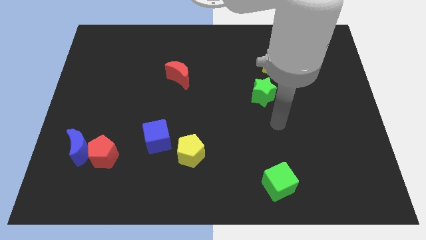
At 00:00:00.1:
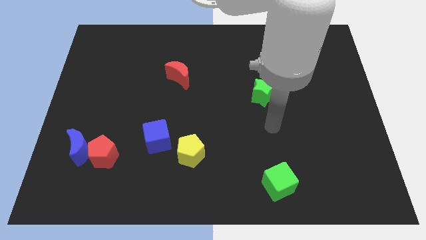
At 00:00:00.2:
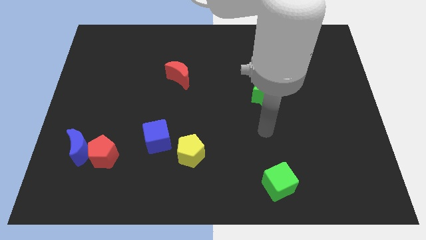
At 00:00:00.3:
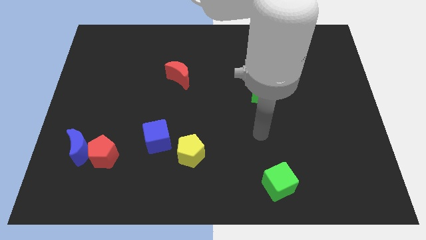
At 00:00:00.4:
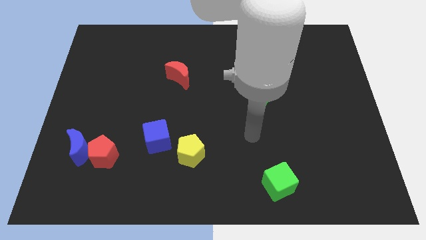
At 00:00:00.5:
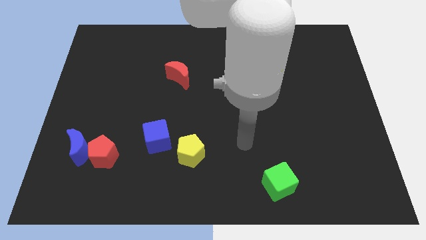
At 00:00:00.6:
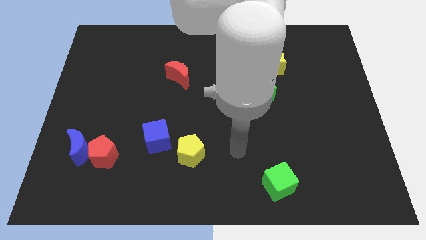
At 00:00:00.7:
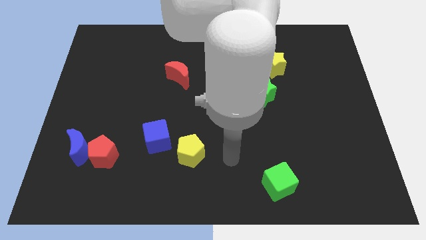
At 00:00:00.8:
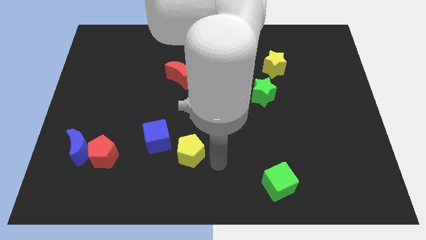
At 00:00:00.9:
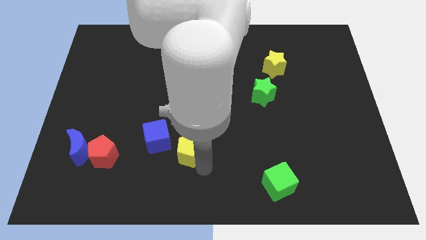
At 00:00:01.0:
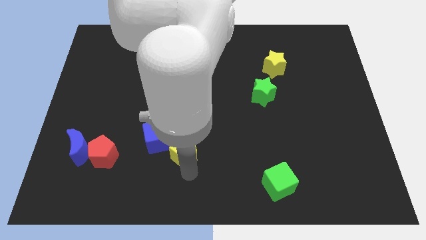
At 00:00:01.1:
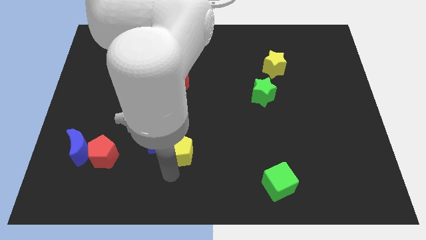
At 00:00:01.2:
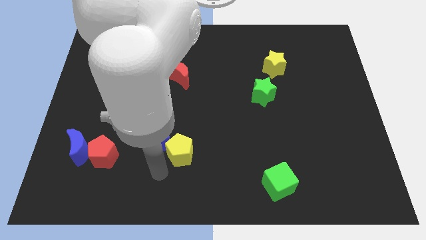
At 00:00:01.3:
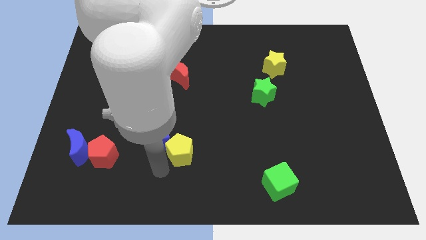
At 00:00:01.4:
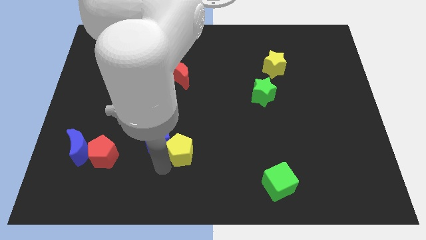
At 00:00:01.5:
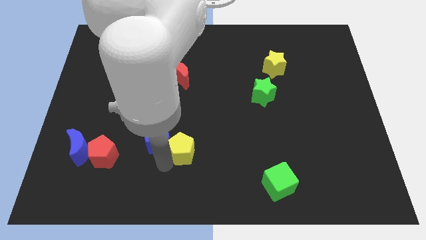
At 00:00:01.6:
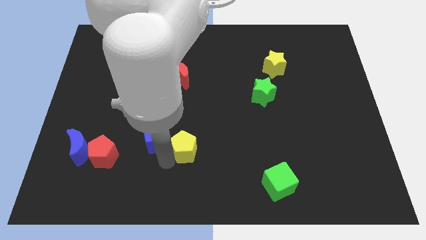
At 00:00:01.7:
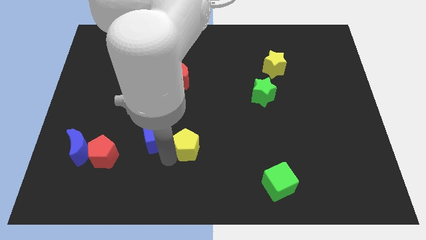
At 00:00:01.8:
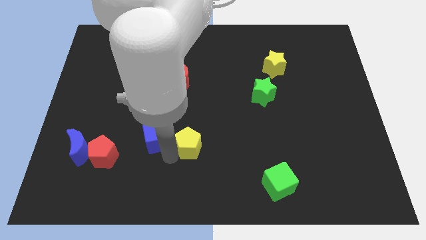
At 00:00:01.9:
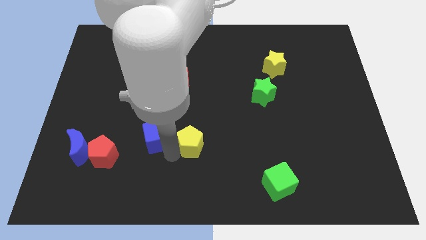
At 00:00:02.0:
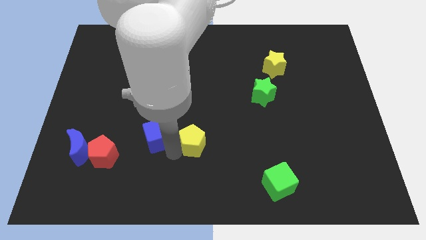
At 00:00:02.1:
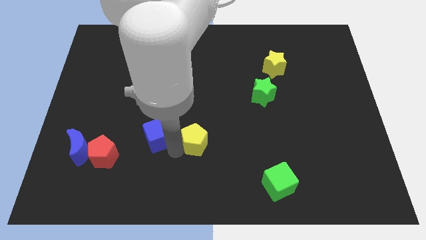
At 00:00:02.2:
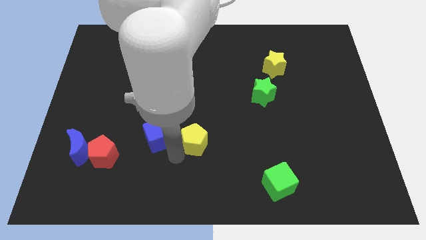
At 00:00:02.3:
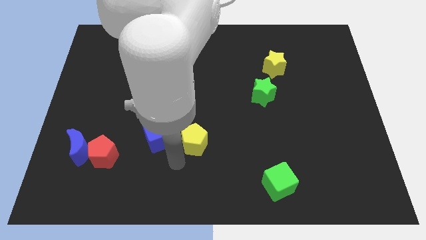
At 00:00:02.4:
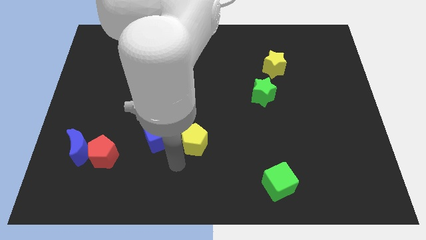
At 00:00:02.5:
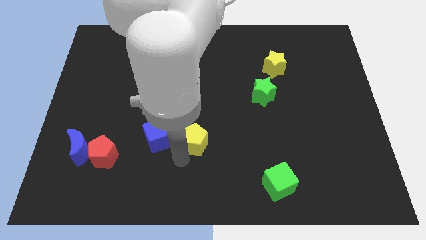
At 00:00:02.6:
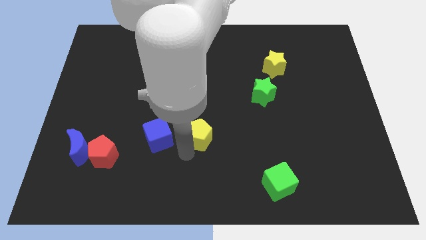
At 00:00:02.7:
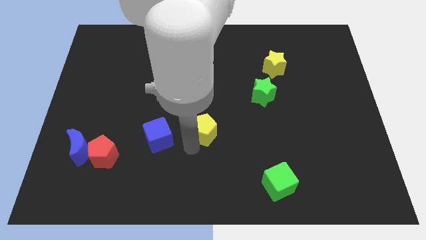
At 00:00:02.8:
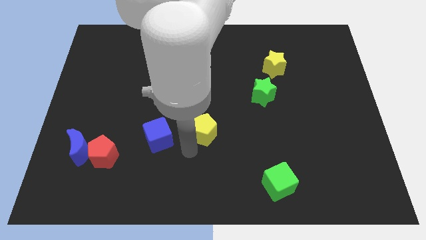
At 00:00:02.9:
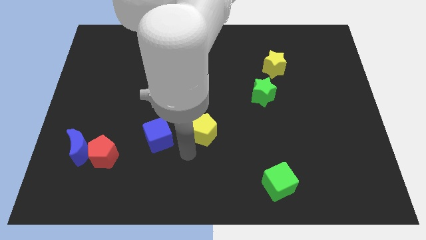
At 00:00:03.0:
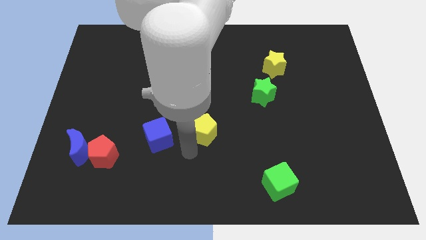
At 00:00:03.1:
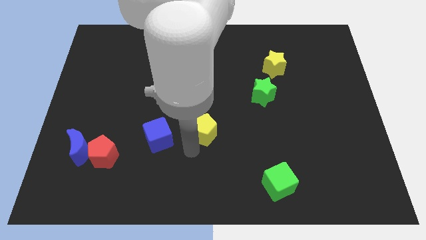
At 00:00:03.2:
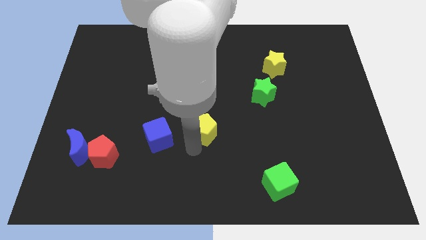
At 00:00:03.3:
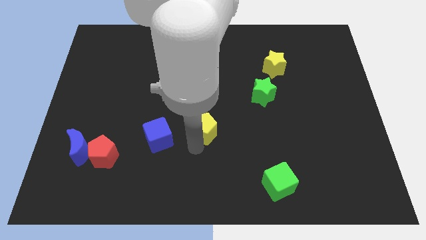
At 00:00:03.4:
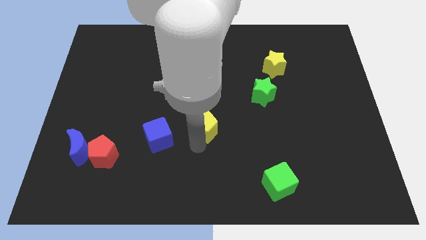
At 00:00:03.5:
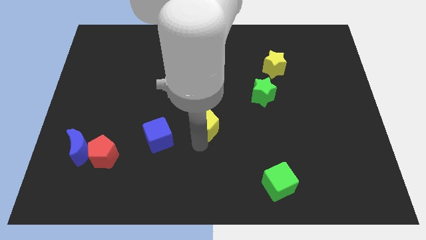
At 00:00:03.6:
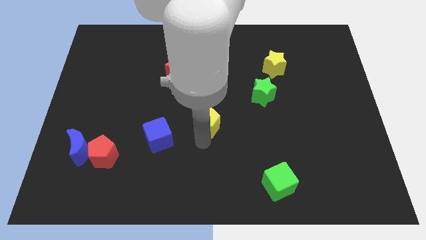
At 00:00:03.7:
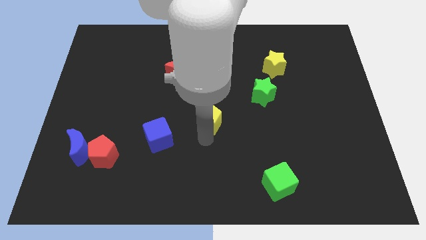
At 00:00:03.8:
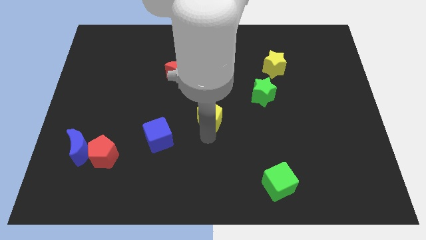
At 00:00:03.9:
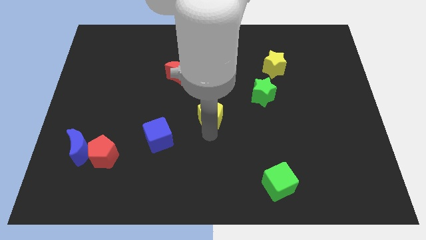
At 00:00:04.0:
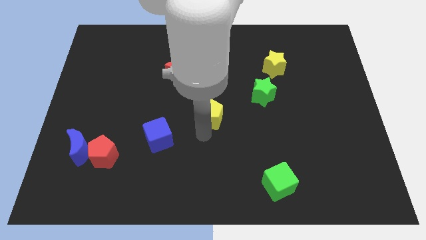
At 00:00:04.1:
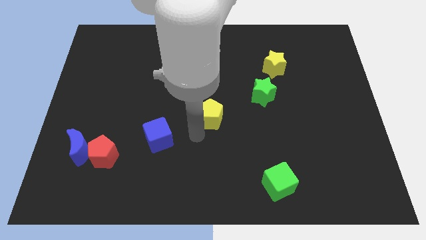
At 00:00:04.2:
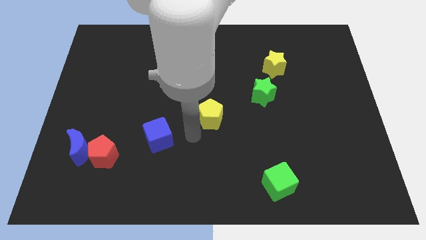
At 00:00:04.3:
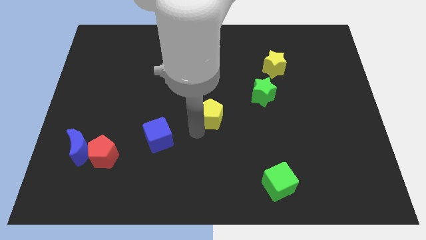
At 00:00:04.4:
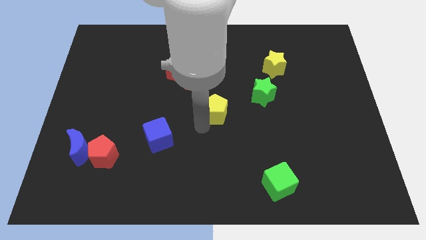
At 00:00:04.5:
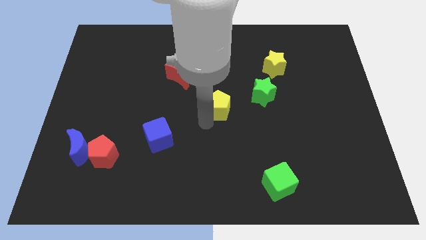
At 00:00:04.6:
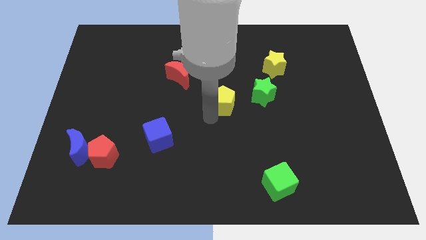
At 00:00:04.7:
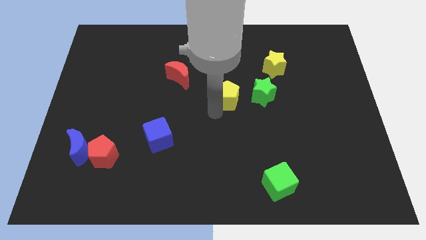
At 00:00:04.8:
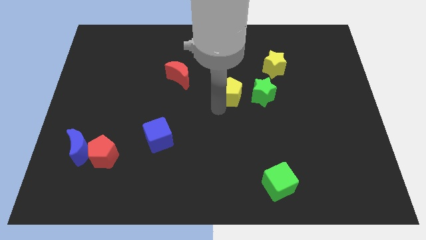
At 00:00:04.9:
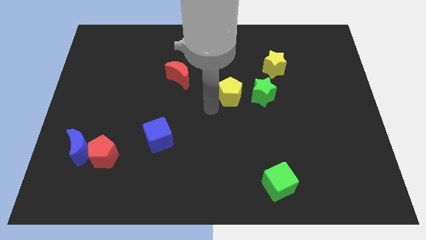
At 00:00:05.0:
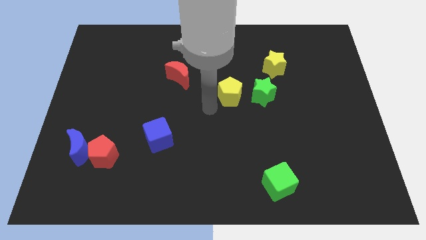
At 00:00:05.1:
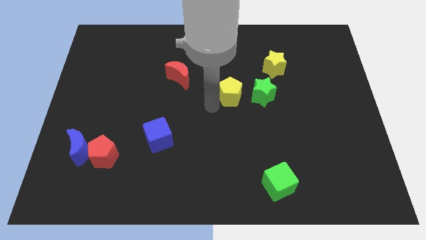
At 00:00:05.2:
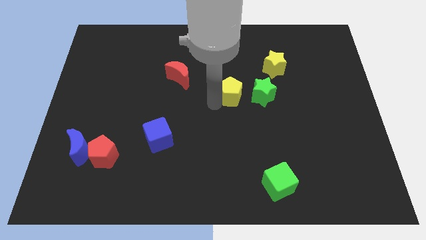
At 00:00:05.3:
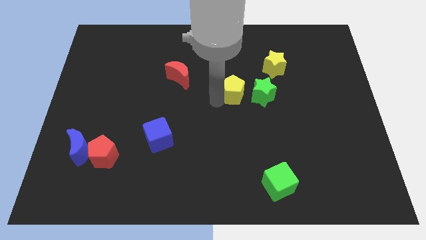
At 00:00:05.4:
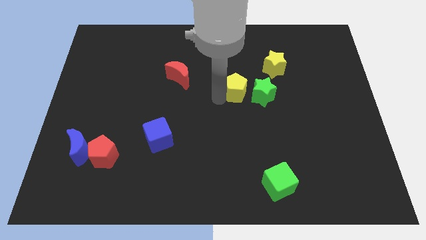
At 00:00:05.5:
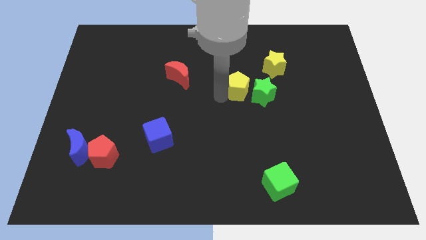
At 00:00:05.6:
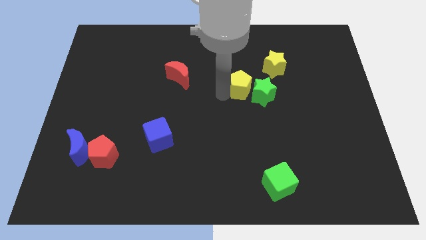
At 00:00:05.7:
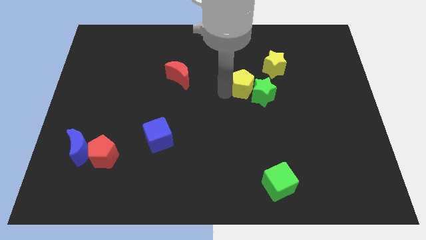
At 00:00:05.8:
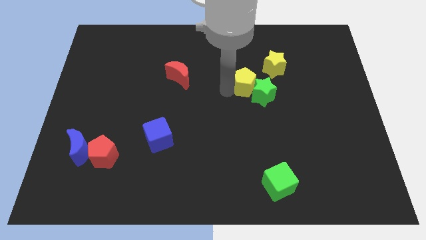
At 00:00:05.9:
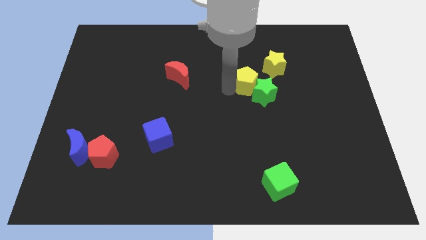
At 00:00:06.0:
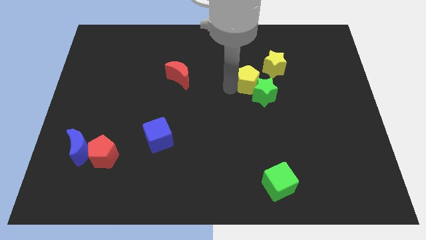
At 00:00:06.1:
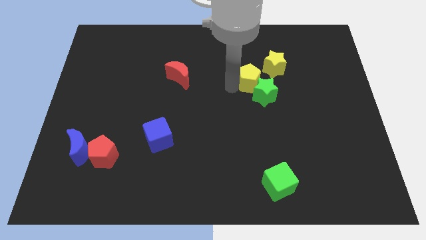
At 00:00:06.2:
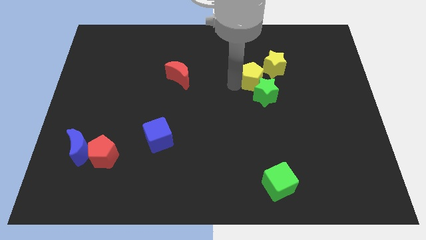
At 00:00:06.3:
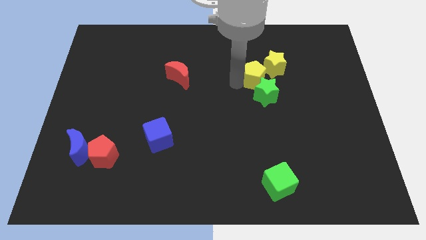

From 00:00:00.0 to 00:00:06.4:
slide the yellow pentagon close to the yellow star

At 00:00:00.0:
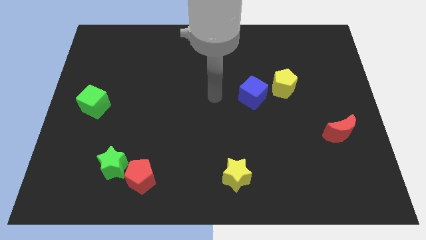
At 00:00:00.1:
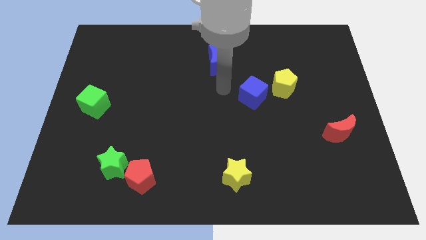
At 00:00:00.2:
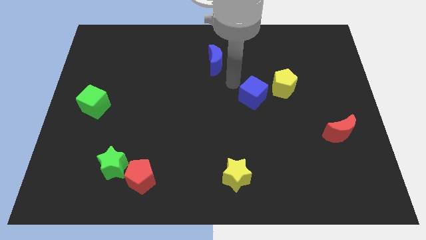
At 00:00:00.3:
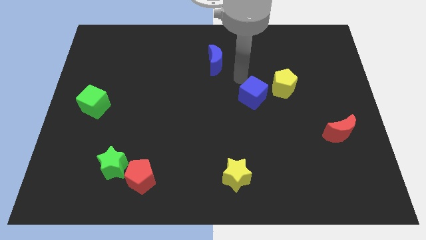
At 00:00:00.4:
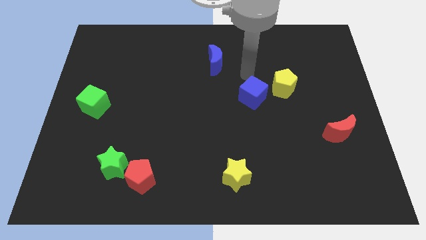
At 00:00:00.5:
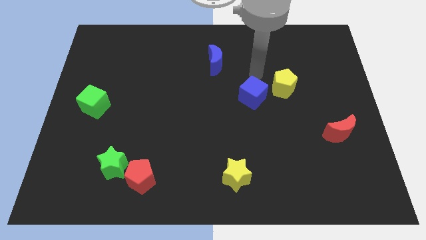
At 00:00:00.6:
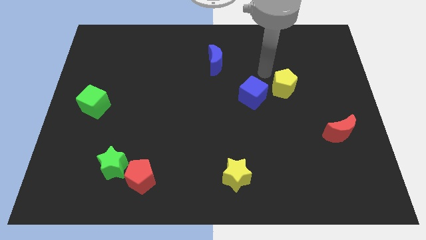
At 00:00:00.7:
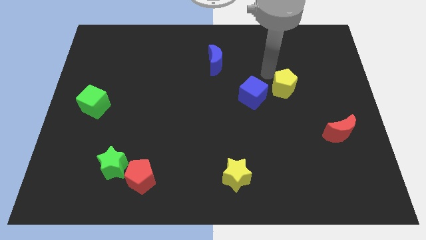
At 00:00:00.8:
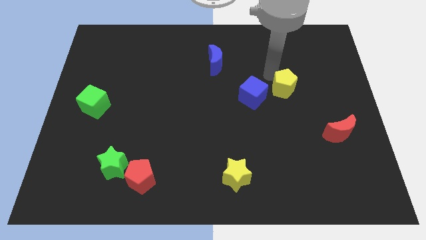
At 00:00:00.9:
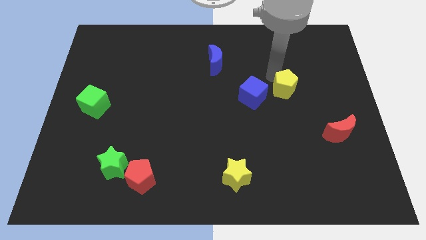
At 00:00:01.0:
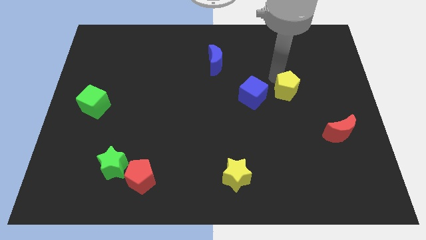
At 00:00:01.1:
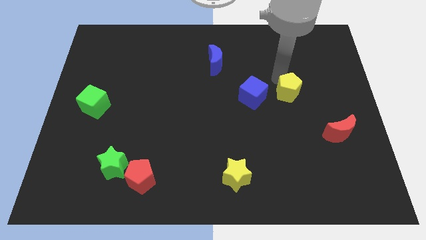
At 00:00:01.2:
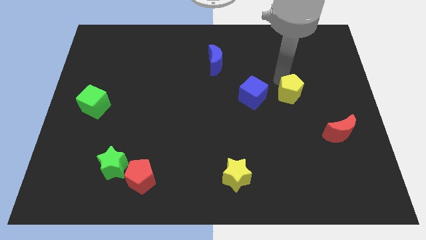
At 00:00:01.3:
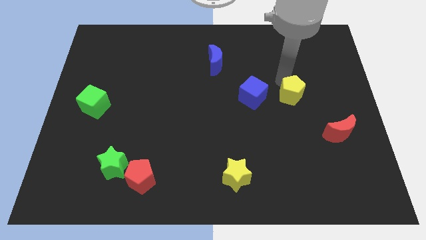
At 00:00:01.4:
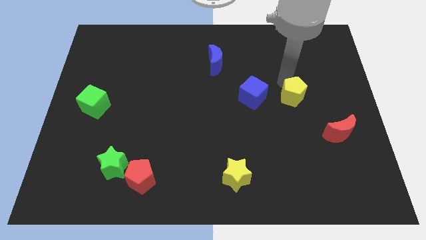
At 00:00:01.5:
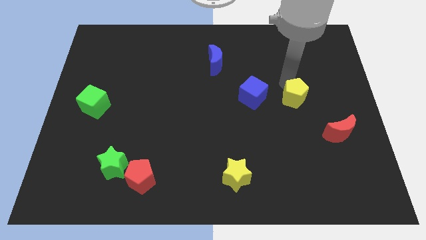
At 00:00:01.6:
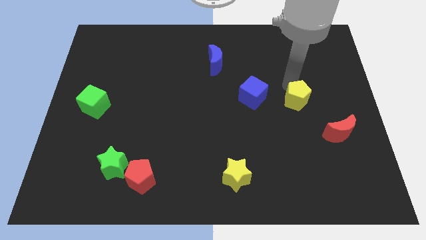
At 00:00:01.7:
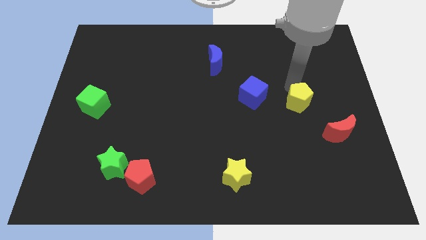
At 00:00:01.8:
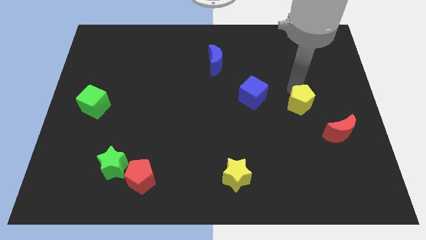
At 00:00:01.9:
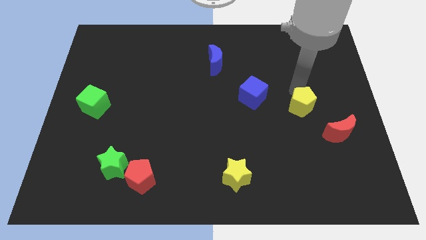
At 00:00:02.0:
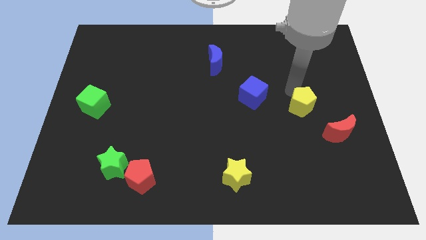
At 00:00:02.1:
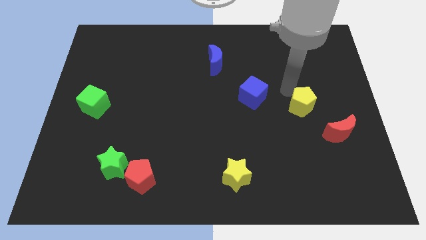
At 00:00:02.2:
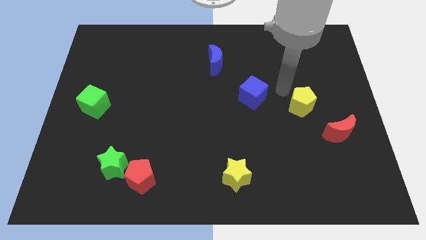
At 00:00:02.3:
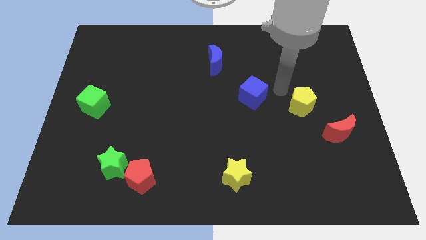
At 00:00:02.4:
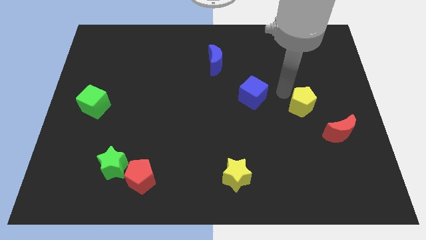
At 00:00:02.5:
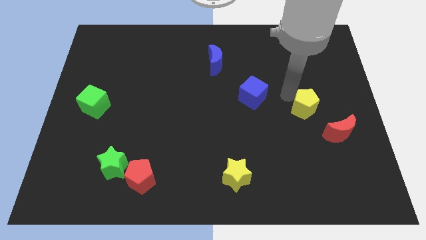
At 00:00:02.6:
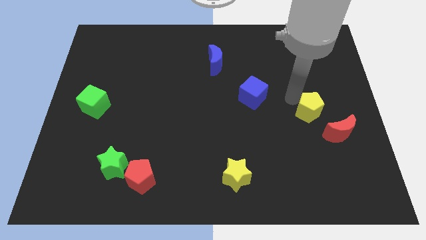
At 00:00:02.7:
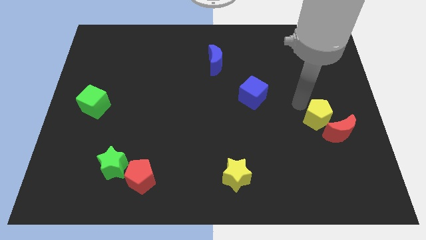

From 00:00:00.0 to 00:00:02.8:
move the yellow pentagon close to the red moon
